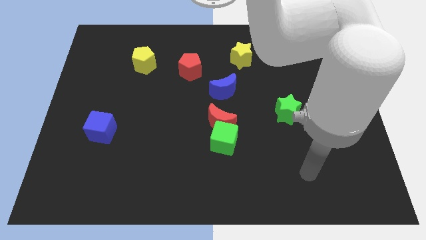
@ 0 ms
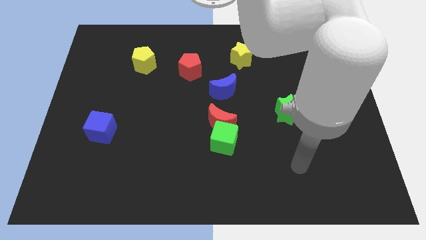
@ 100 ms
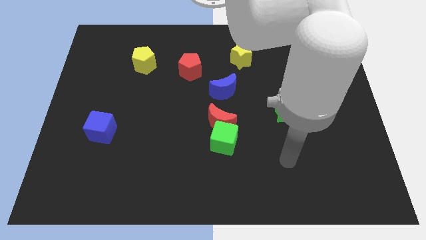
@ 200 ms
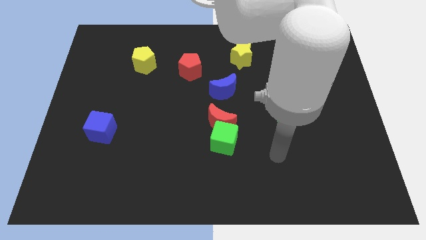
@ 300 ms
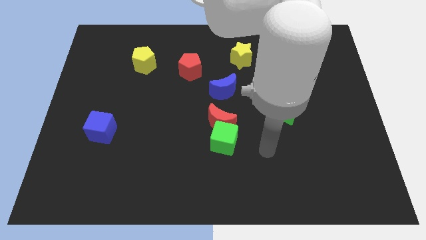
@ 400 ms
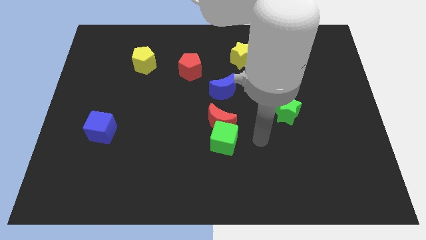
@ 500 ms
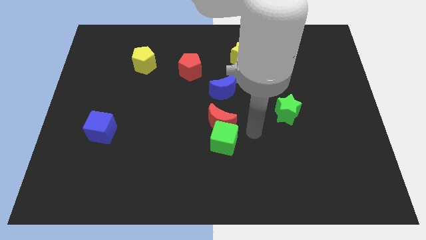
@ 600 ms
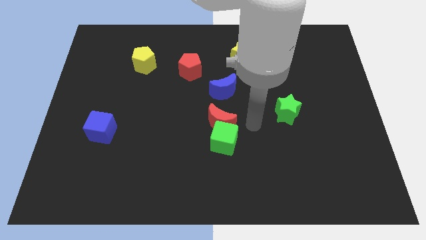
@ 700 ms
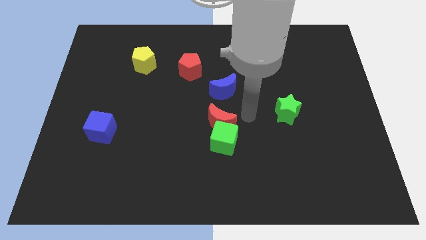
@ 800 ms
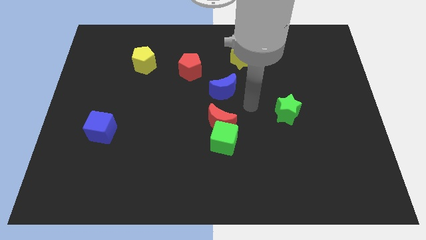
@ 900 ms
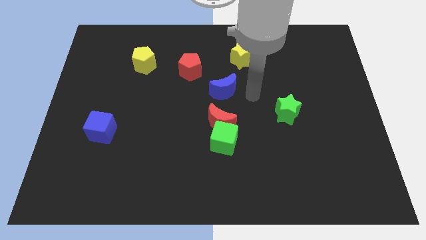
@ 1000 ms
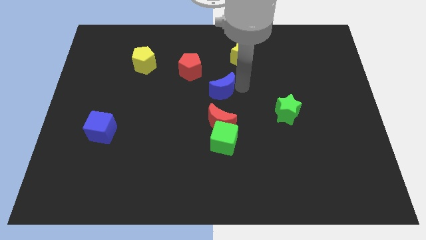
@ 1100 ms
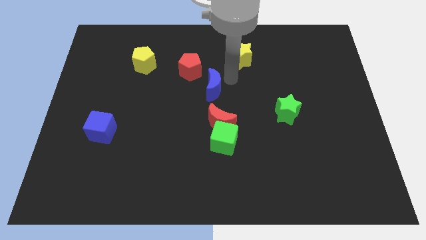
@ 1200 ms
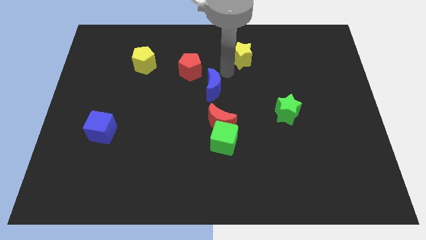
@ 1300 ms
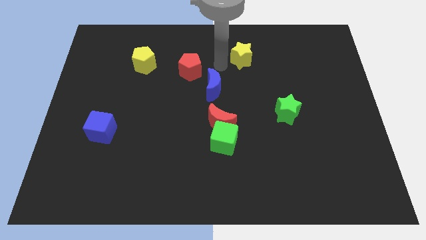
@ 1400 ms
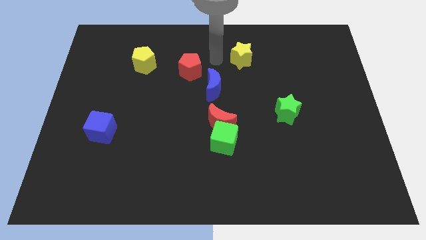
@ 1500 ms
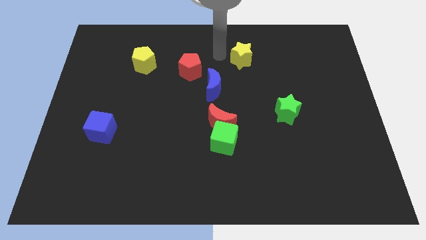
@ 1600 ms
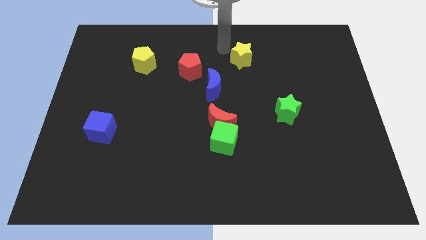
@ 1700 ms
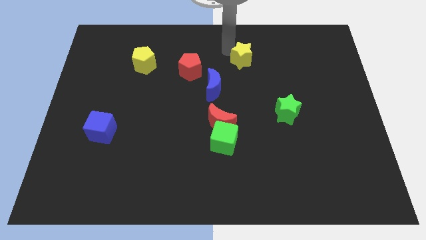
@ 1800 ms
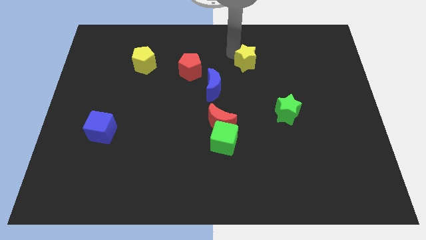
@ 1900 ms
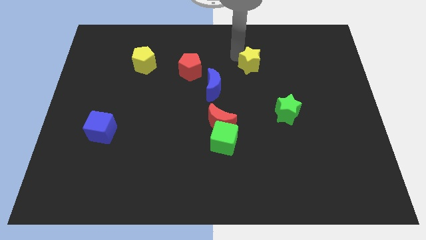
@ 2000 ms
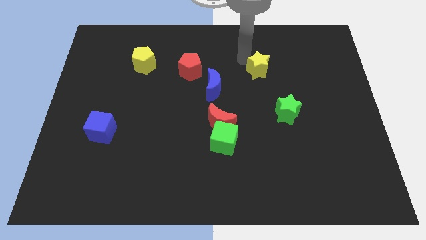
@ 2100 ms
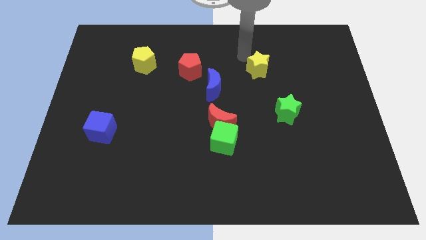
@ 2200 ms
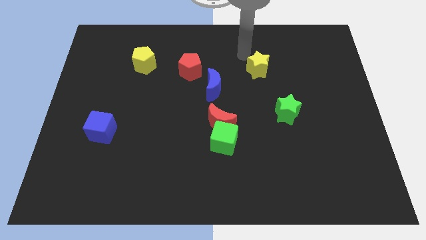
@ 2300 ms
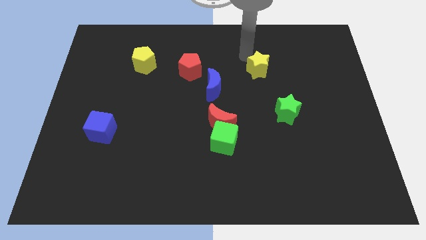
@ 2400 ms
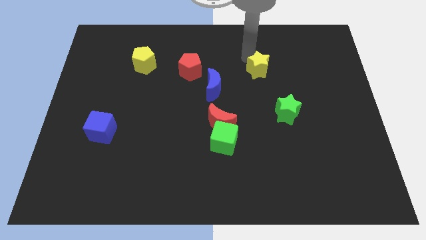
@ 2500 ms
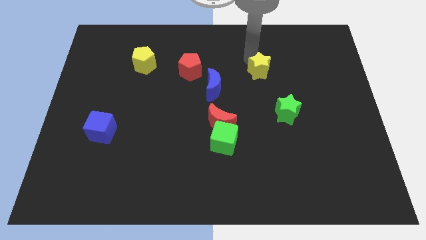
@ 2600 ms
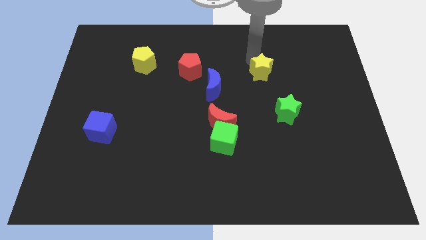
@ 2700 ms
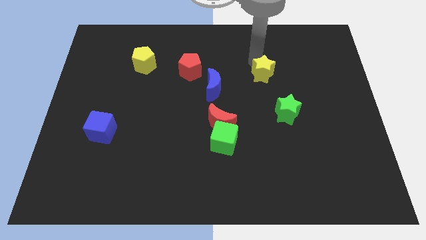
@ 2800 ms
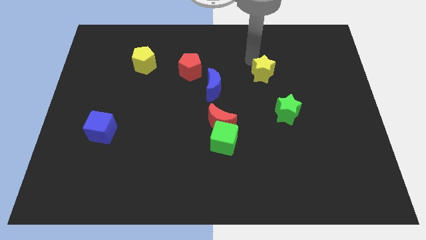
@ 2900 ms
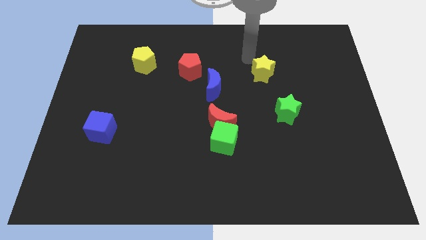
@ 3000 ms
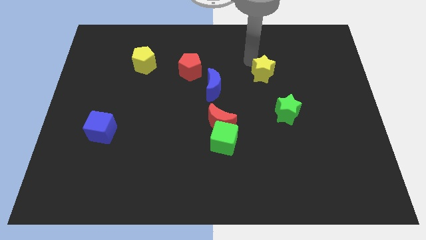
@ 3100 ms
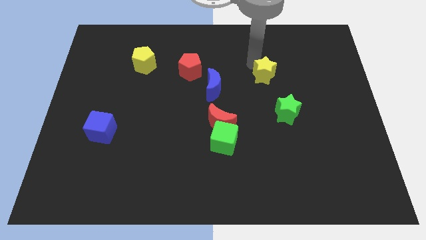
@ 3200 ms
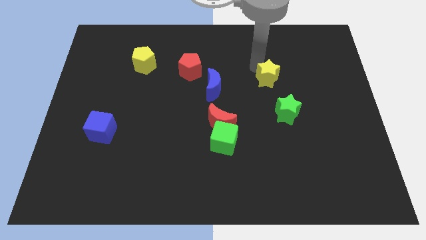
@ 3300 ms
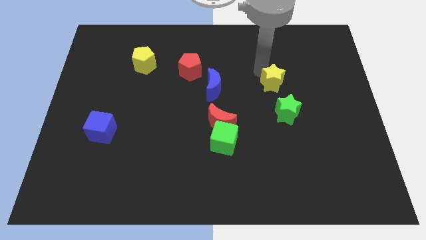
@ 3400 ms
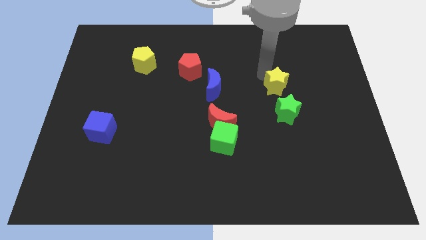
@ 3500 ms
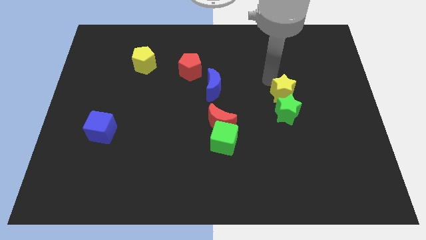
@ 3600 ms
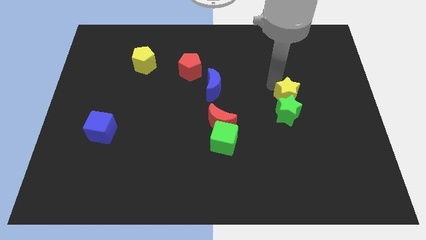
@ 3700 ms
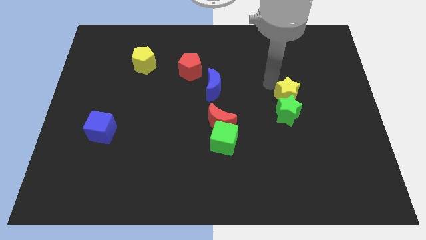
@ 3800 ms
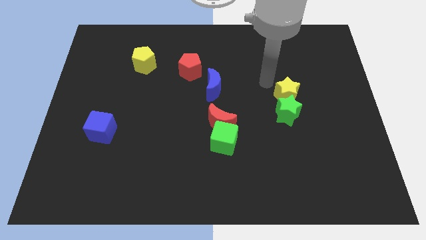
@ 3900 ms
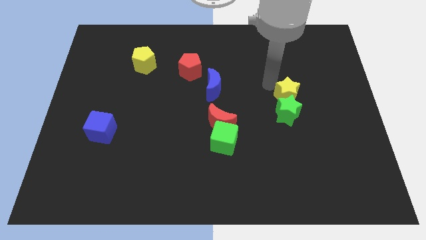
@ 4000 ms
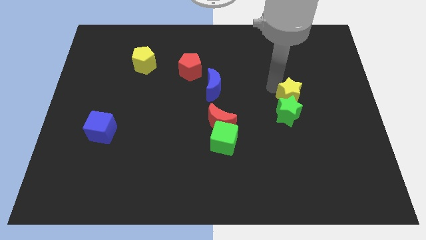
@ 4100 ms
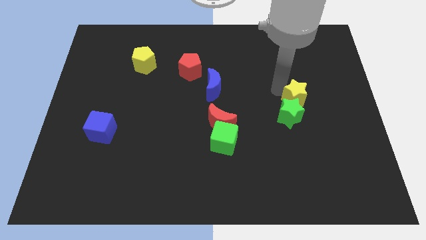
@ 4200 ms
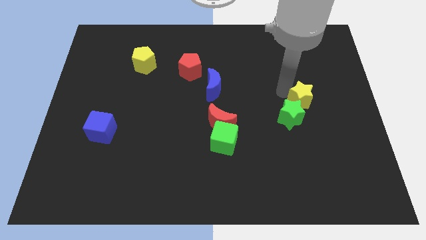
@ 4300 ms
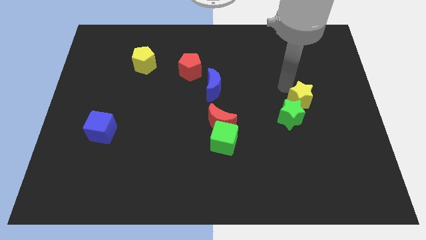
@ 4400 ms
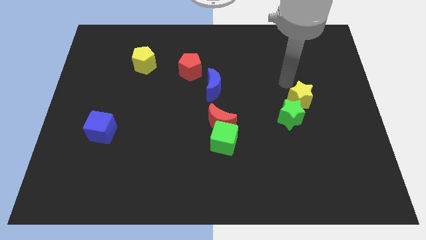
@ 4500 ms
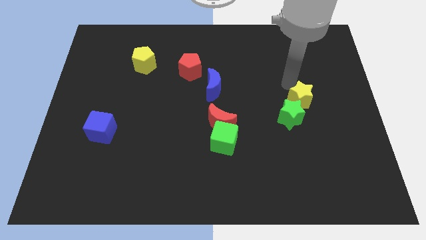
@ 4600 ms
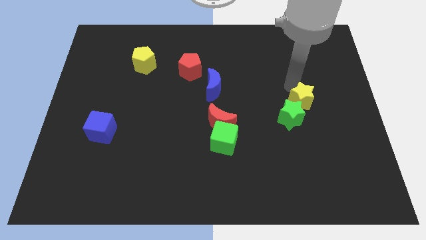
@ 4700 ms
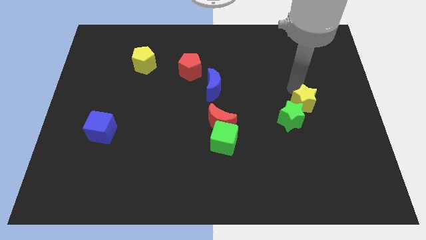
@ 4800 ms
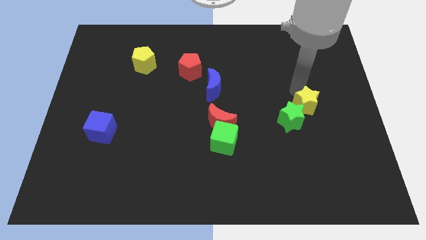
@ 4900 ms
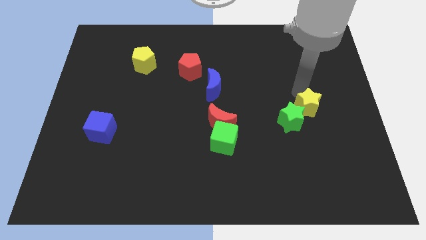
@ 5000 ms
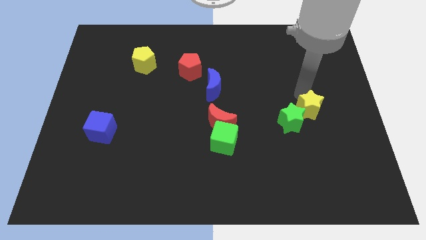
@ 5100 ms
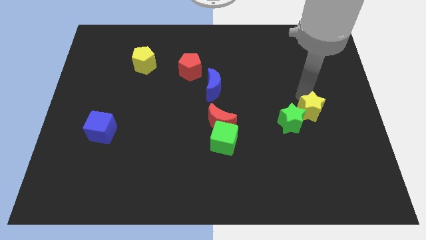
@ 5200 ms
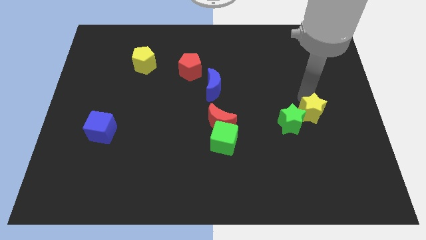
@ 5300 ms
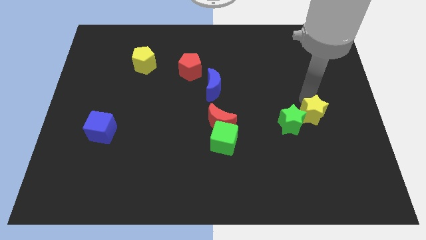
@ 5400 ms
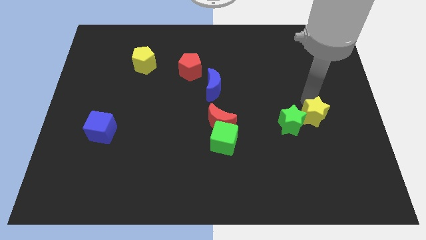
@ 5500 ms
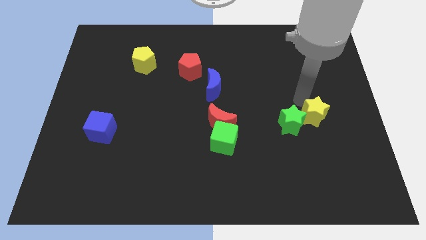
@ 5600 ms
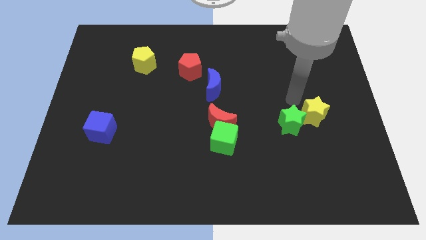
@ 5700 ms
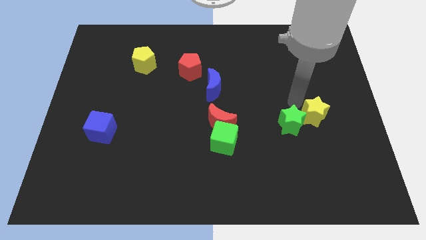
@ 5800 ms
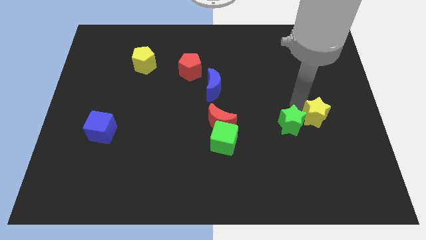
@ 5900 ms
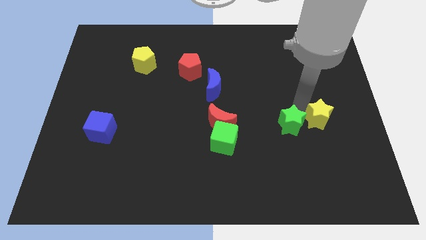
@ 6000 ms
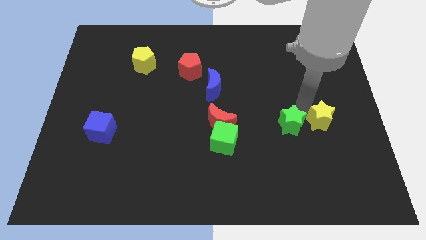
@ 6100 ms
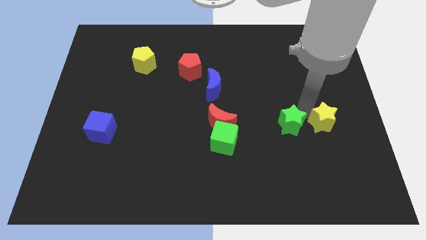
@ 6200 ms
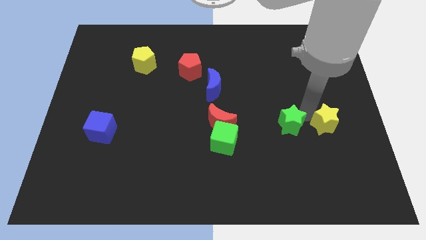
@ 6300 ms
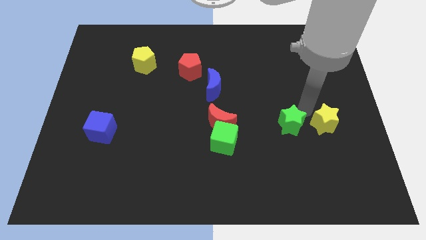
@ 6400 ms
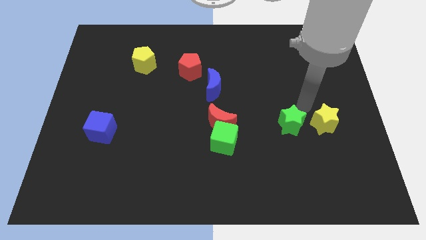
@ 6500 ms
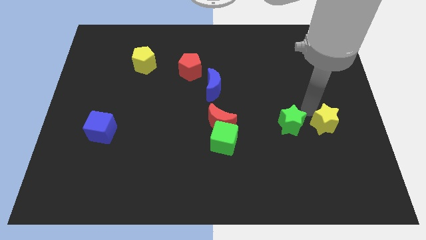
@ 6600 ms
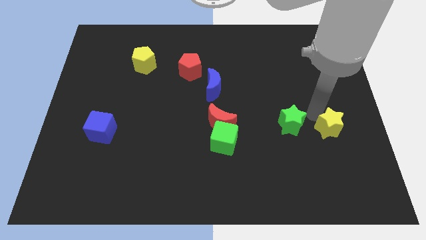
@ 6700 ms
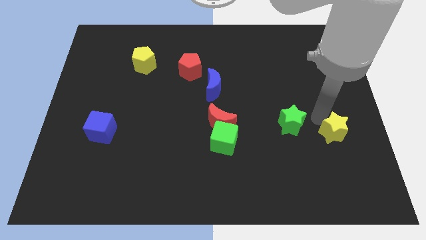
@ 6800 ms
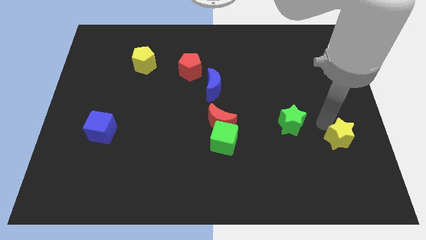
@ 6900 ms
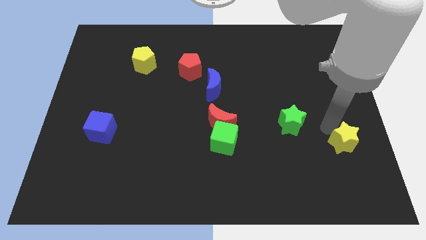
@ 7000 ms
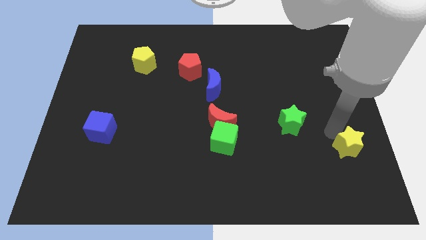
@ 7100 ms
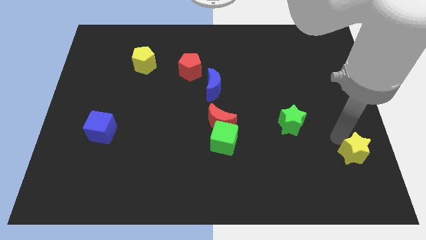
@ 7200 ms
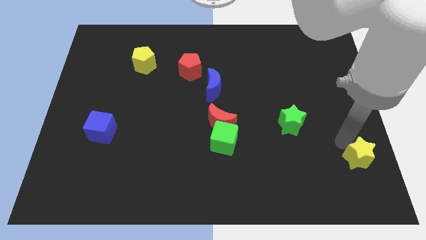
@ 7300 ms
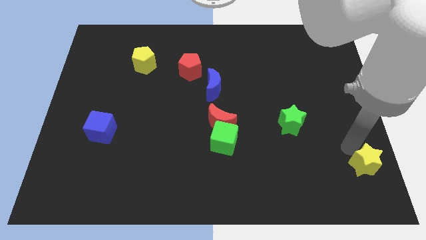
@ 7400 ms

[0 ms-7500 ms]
put the yellow star to the bottom right of the board
